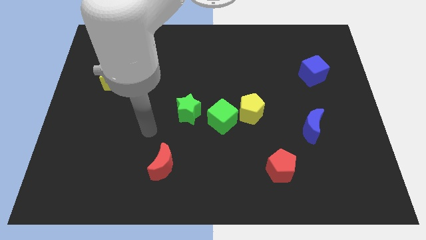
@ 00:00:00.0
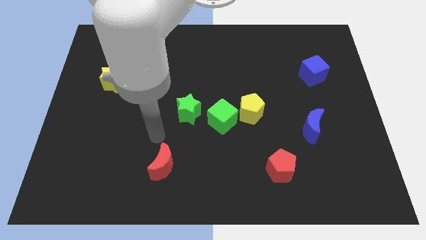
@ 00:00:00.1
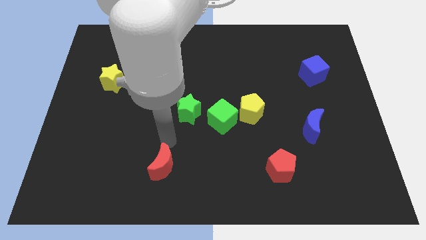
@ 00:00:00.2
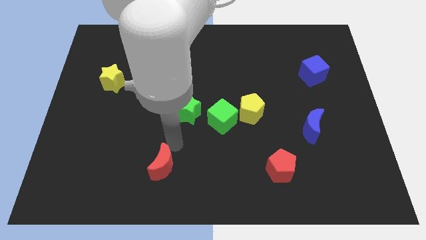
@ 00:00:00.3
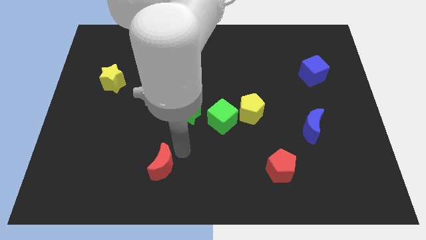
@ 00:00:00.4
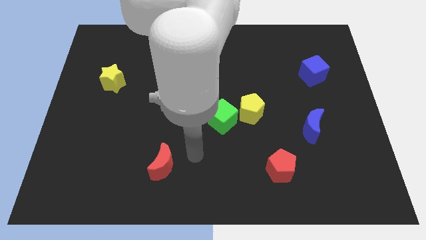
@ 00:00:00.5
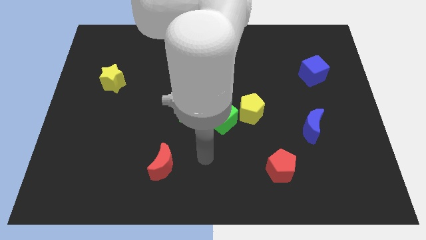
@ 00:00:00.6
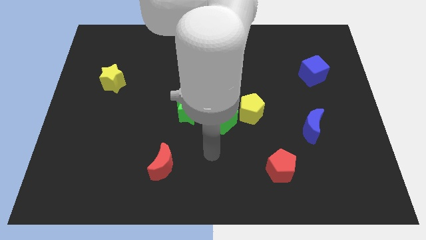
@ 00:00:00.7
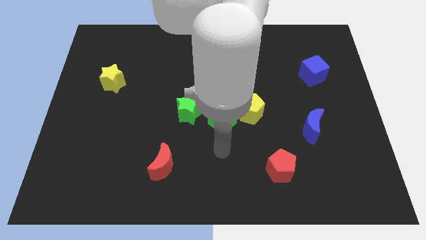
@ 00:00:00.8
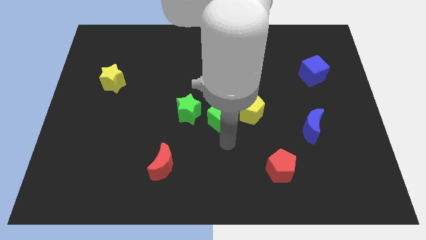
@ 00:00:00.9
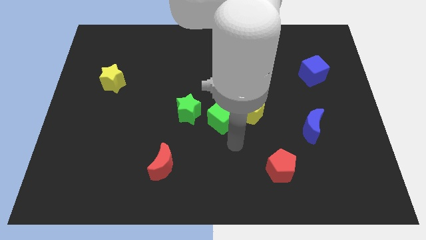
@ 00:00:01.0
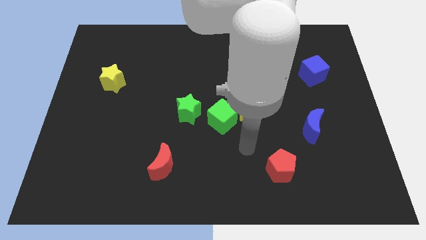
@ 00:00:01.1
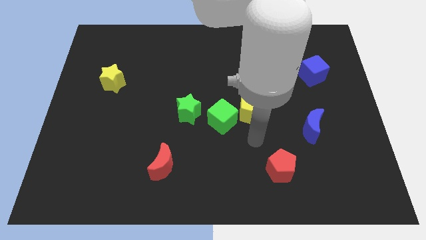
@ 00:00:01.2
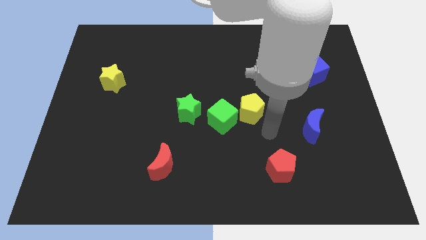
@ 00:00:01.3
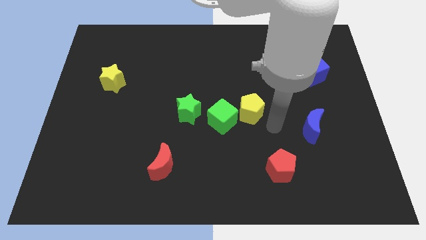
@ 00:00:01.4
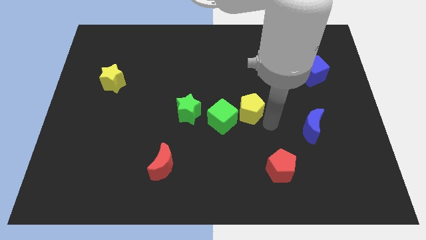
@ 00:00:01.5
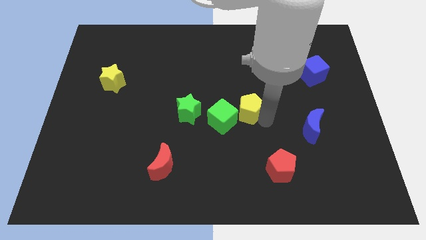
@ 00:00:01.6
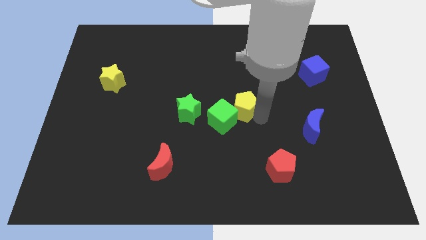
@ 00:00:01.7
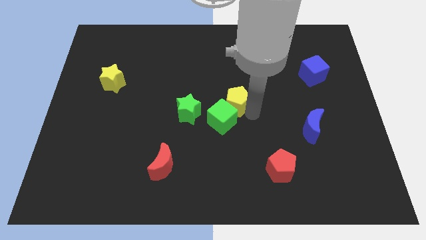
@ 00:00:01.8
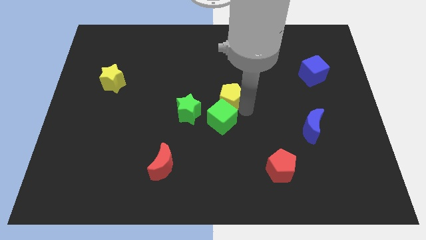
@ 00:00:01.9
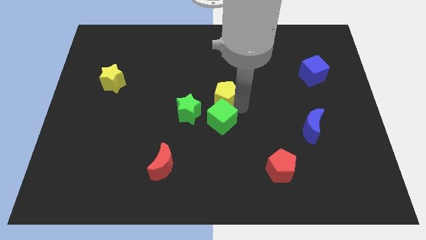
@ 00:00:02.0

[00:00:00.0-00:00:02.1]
slide the yellow pentagon a little upwards and left diagonally

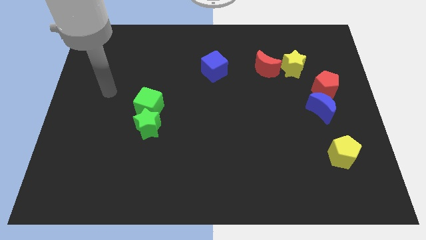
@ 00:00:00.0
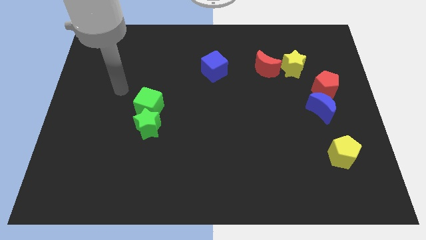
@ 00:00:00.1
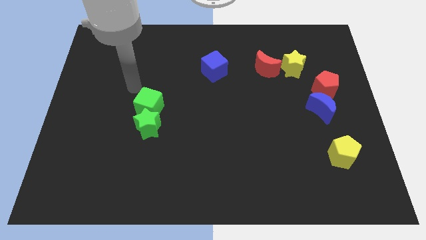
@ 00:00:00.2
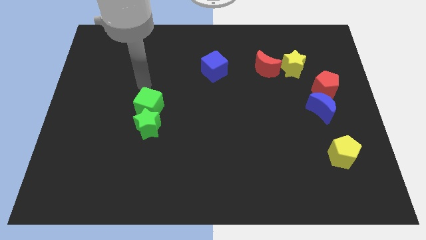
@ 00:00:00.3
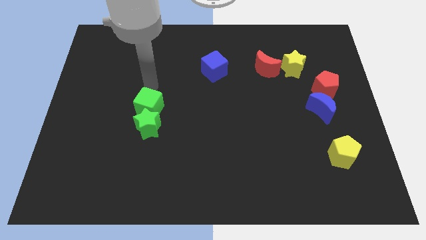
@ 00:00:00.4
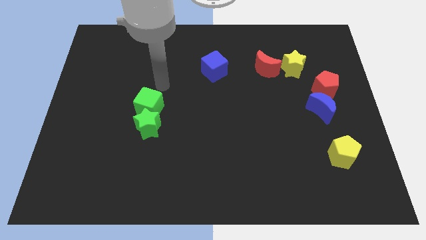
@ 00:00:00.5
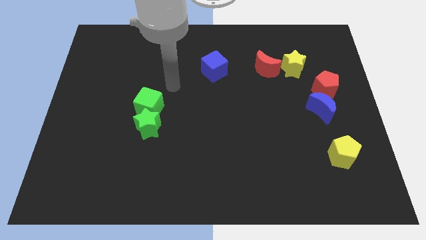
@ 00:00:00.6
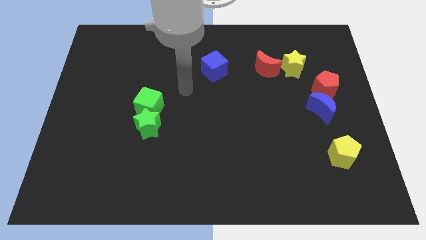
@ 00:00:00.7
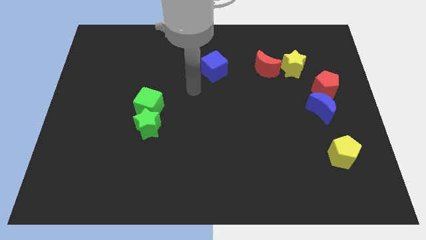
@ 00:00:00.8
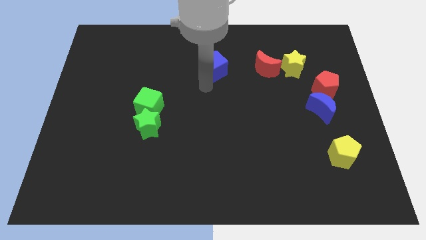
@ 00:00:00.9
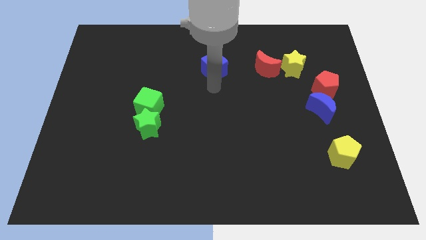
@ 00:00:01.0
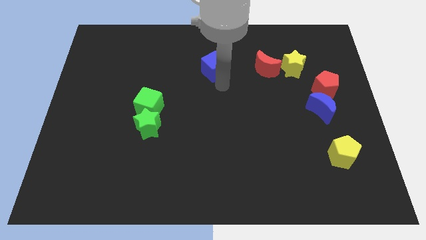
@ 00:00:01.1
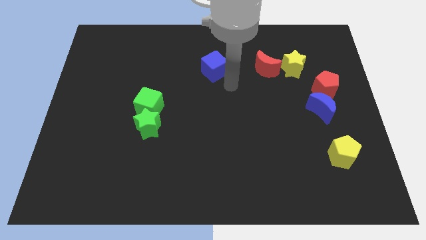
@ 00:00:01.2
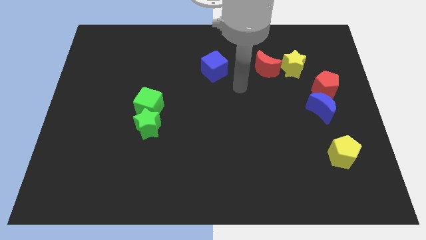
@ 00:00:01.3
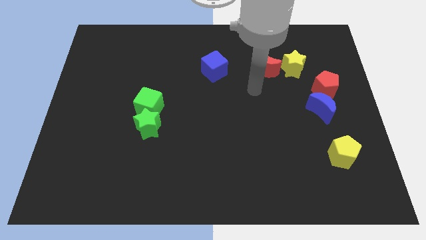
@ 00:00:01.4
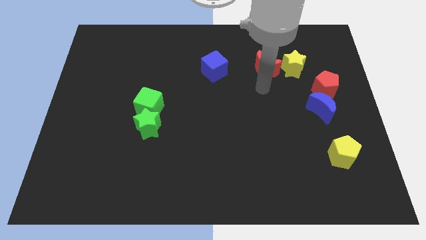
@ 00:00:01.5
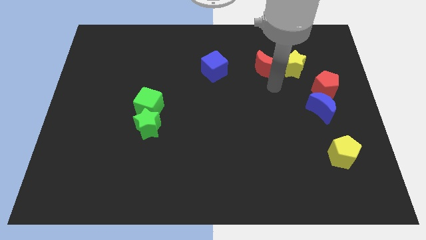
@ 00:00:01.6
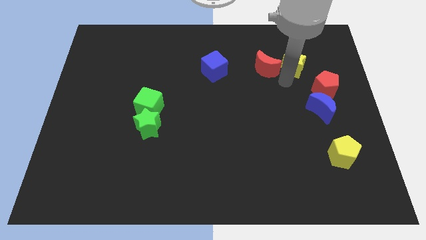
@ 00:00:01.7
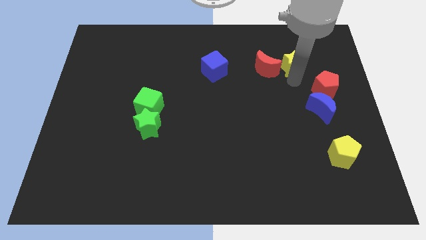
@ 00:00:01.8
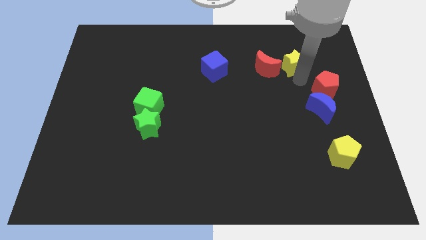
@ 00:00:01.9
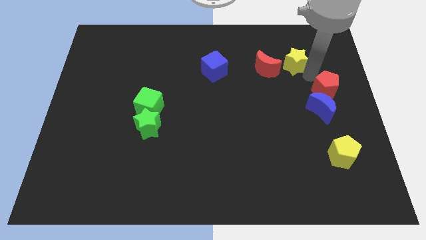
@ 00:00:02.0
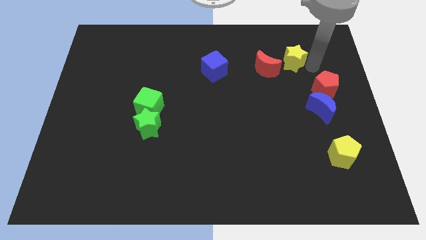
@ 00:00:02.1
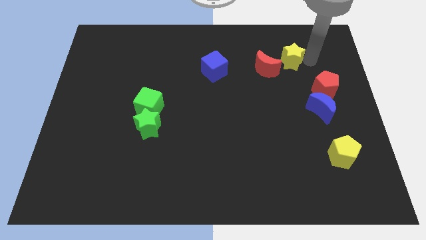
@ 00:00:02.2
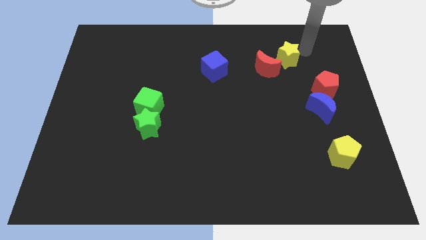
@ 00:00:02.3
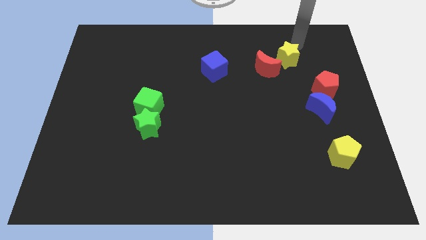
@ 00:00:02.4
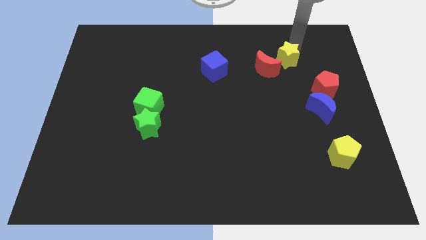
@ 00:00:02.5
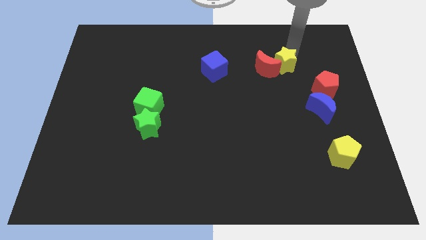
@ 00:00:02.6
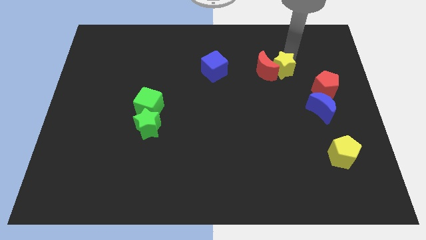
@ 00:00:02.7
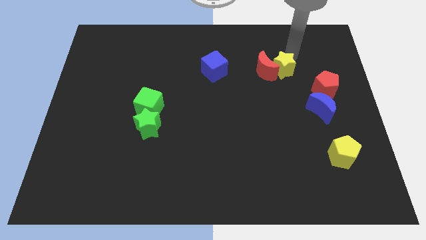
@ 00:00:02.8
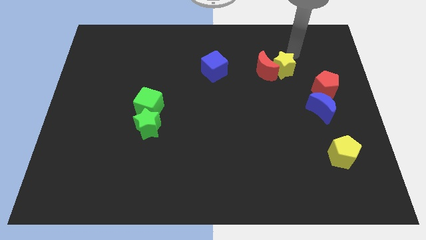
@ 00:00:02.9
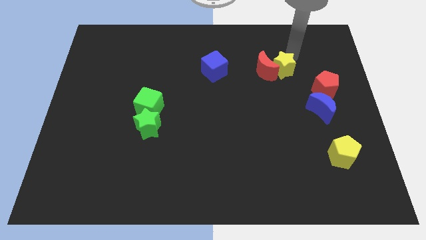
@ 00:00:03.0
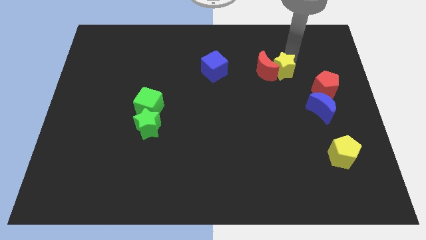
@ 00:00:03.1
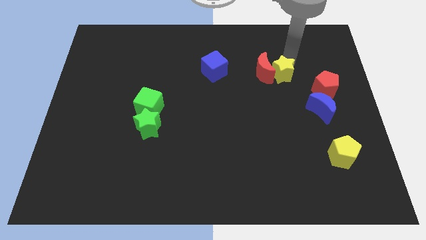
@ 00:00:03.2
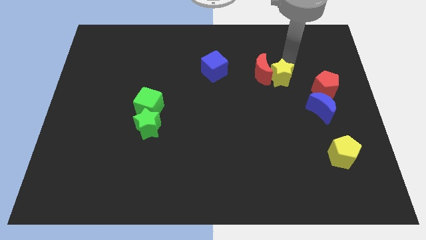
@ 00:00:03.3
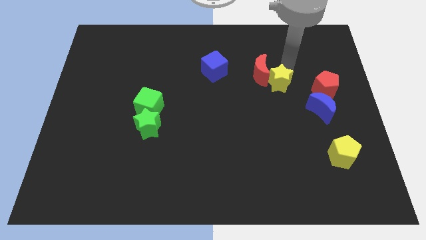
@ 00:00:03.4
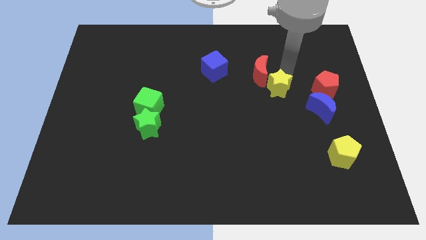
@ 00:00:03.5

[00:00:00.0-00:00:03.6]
move the yellow star somewhat downwards and left diagonally

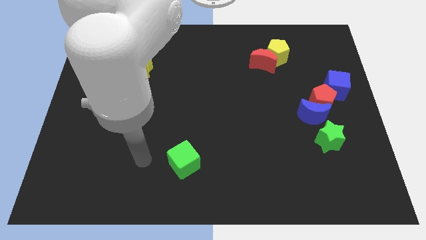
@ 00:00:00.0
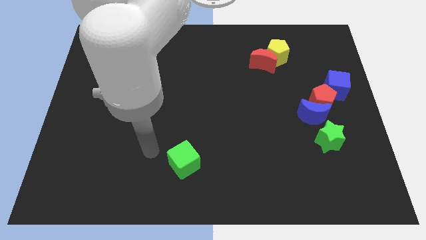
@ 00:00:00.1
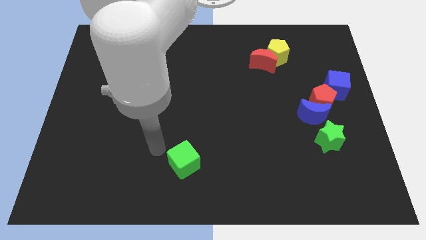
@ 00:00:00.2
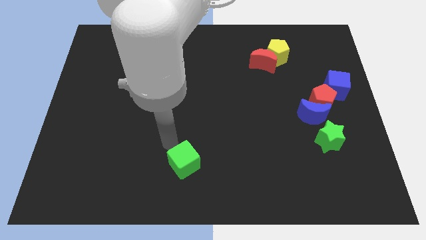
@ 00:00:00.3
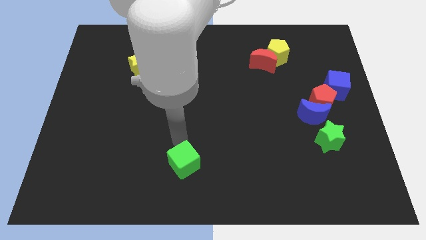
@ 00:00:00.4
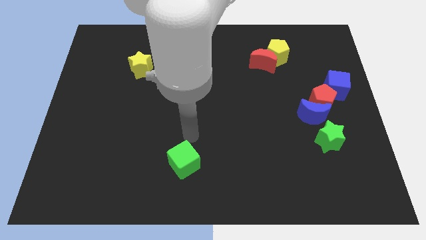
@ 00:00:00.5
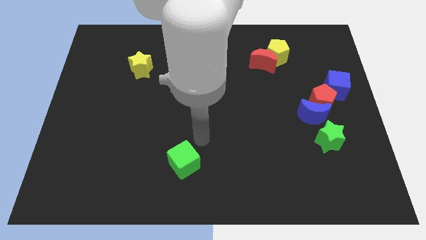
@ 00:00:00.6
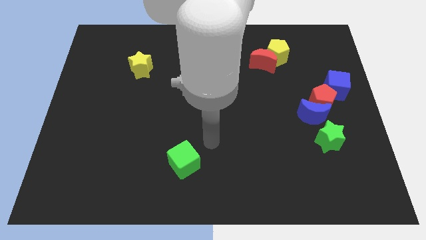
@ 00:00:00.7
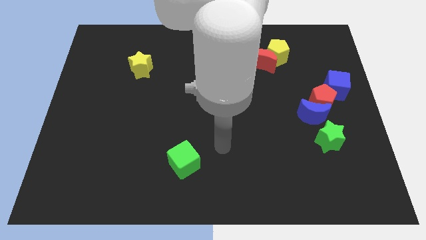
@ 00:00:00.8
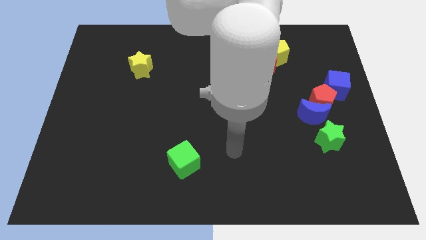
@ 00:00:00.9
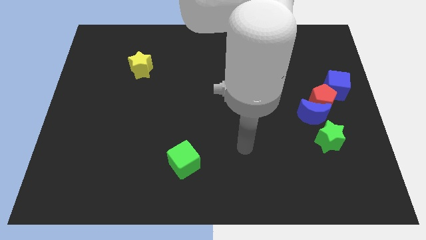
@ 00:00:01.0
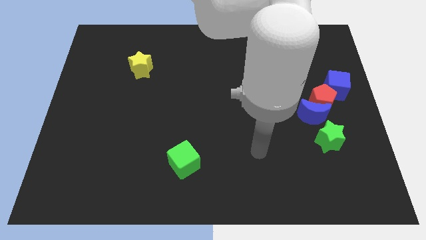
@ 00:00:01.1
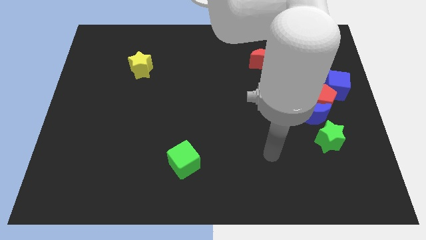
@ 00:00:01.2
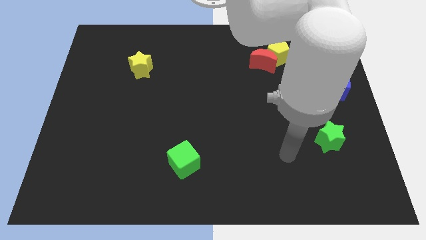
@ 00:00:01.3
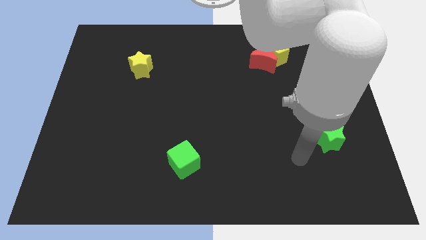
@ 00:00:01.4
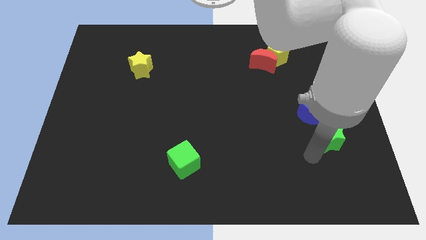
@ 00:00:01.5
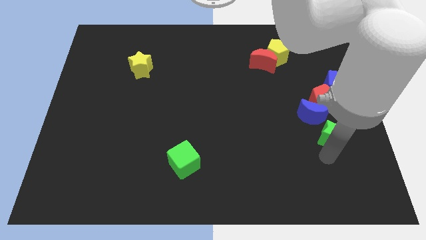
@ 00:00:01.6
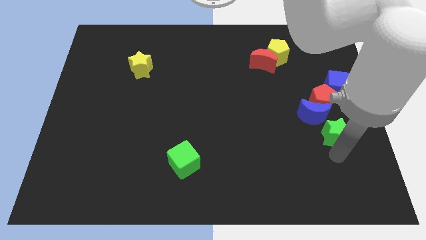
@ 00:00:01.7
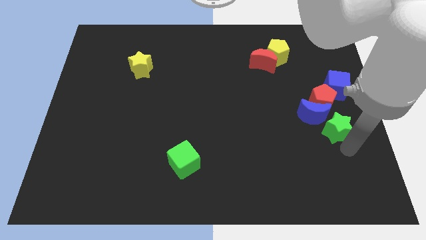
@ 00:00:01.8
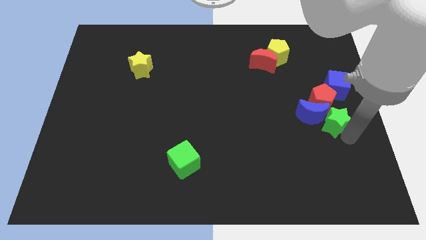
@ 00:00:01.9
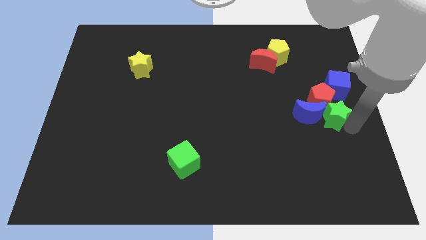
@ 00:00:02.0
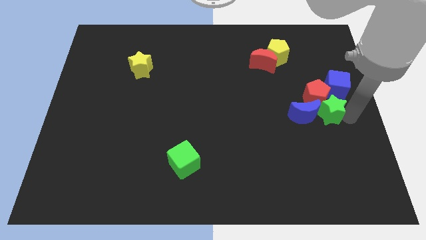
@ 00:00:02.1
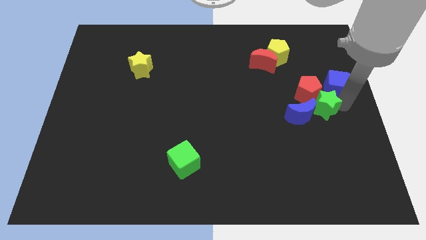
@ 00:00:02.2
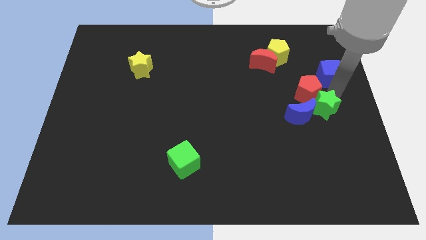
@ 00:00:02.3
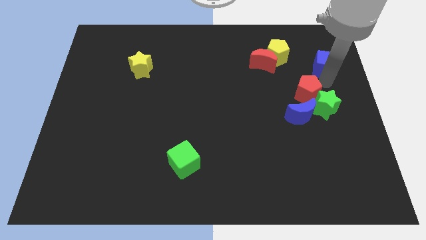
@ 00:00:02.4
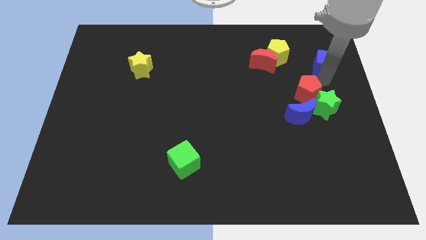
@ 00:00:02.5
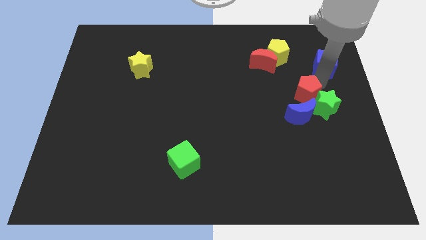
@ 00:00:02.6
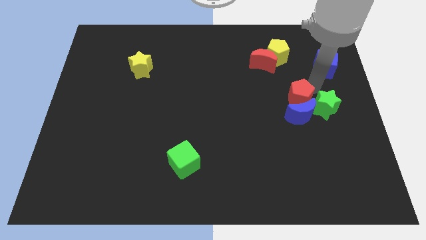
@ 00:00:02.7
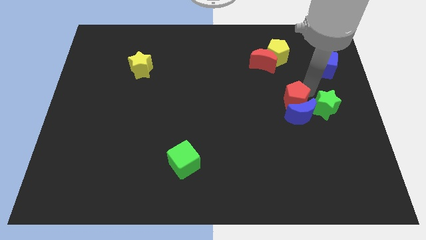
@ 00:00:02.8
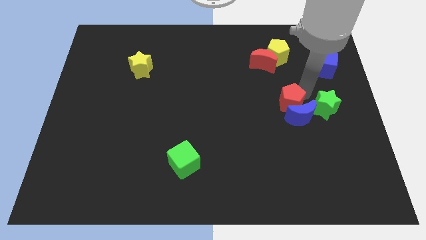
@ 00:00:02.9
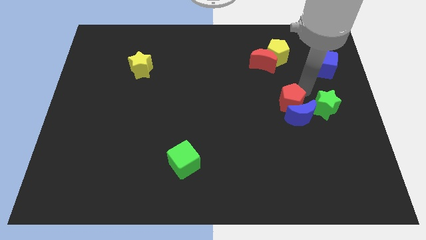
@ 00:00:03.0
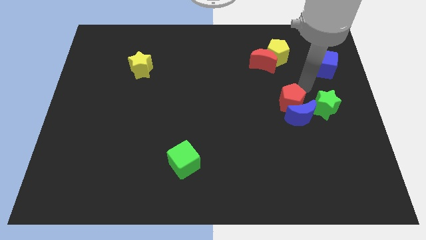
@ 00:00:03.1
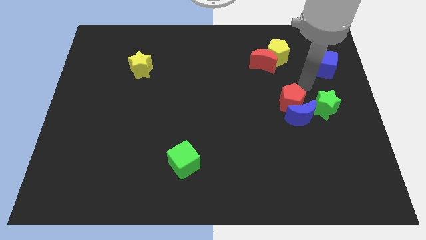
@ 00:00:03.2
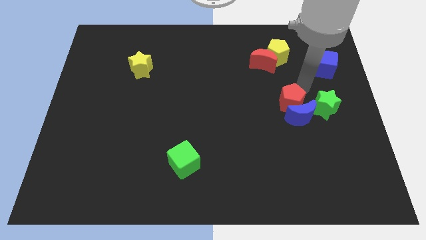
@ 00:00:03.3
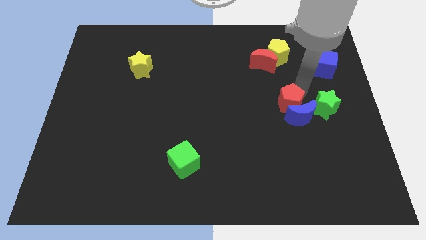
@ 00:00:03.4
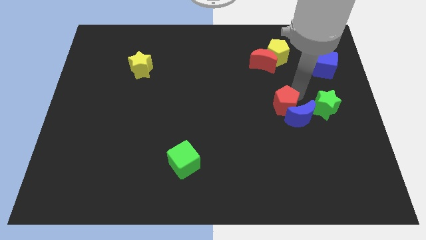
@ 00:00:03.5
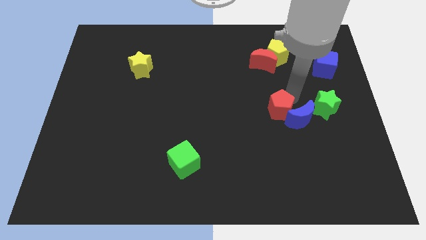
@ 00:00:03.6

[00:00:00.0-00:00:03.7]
slightly move the red pentagon down and then left
